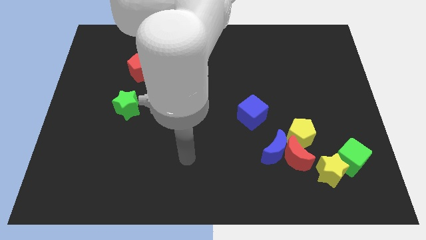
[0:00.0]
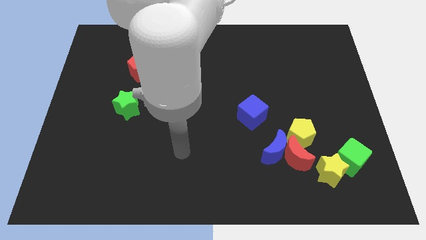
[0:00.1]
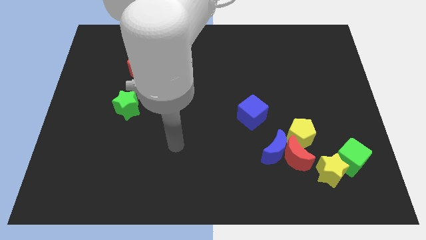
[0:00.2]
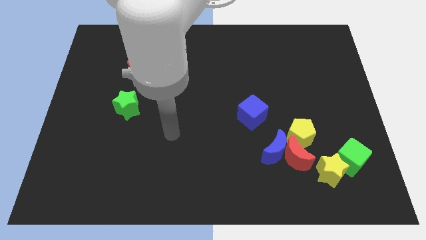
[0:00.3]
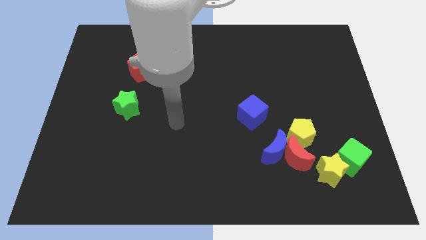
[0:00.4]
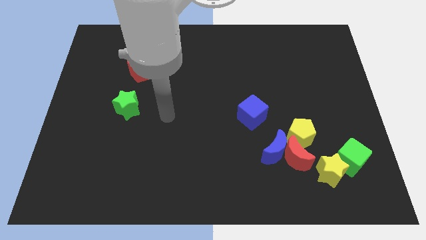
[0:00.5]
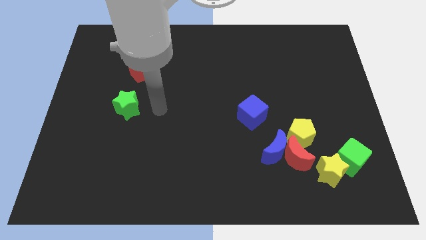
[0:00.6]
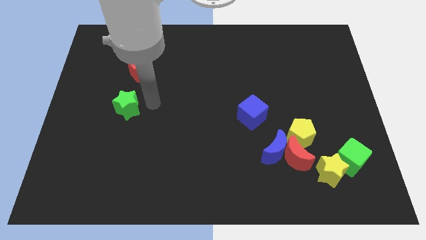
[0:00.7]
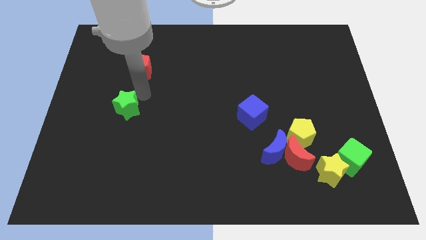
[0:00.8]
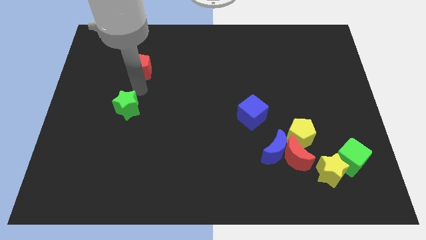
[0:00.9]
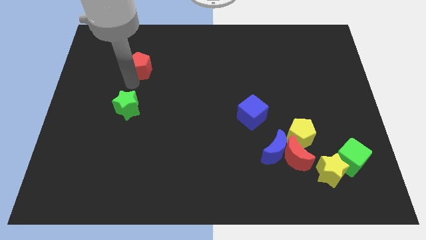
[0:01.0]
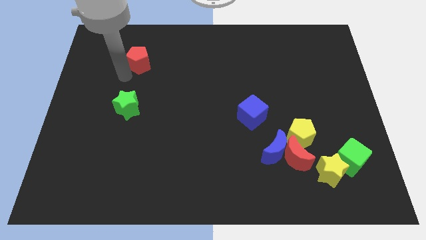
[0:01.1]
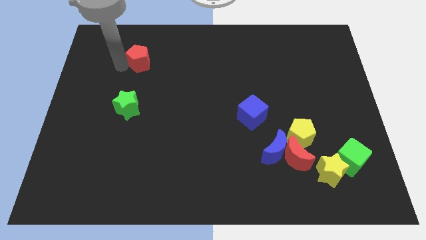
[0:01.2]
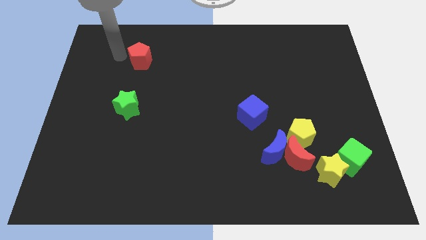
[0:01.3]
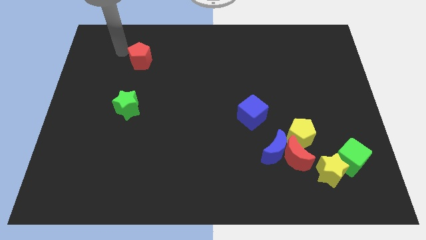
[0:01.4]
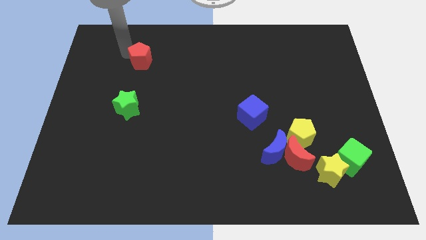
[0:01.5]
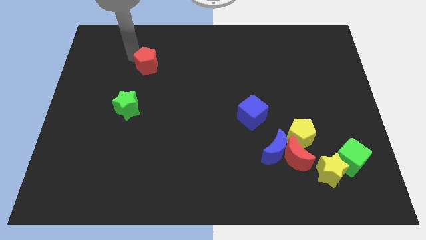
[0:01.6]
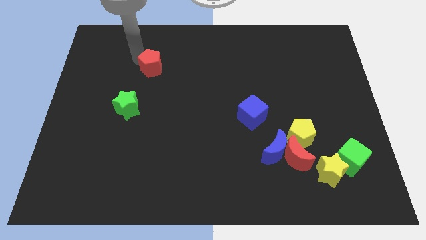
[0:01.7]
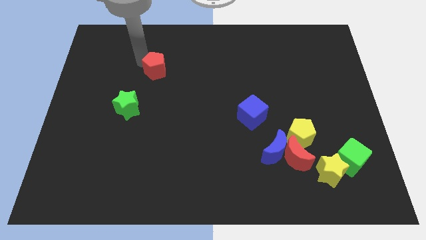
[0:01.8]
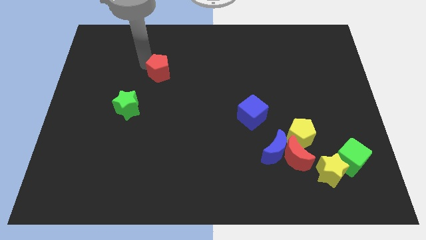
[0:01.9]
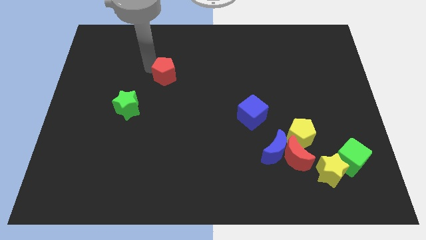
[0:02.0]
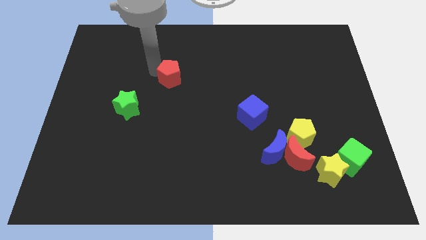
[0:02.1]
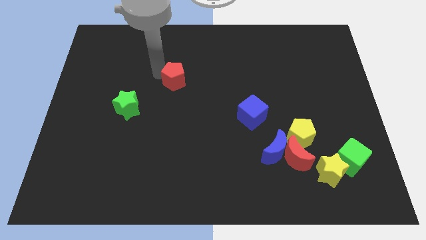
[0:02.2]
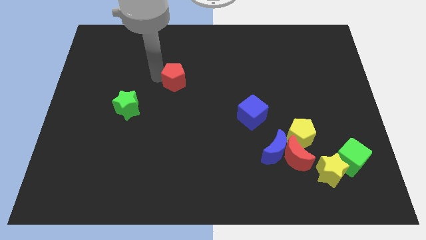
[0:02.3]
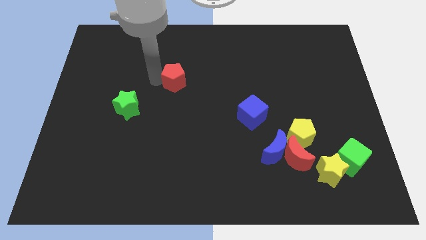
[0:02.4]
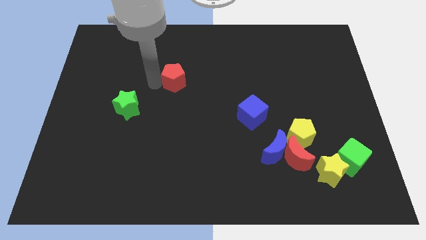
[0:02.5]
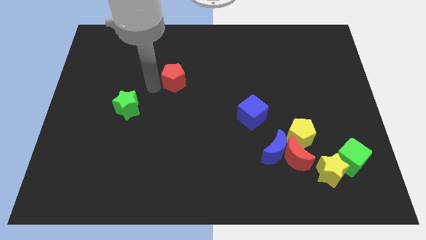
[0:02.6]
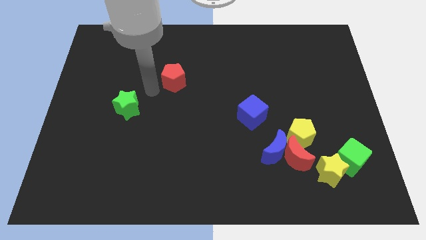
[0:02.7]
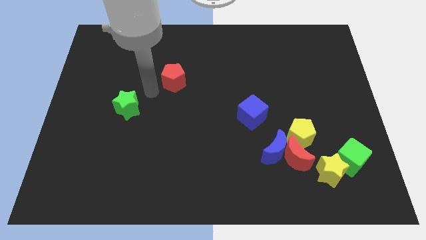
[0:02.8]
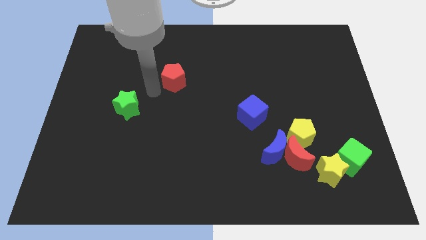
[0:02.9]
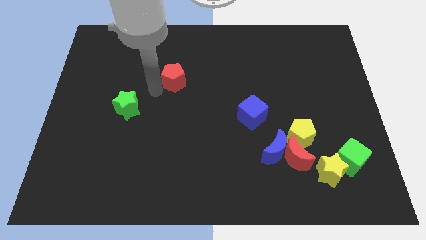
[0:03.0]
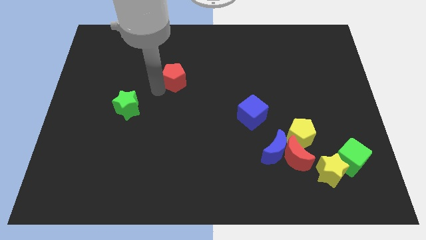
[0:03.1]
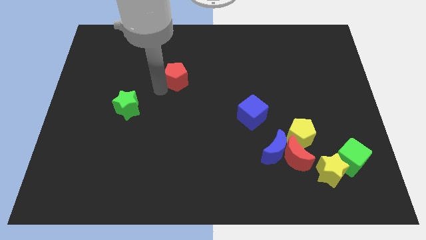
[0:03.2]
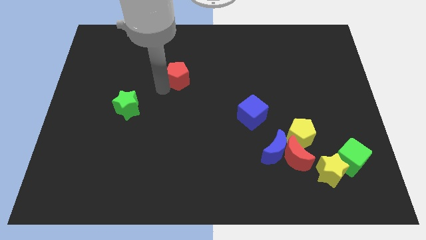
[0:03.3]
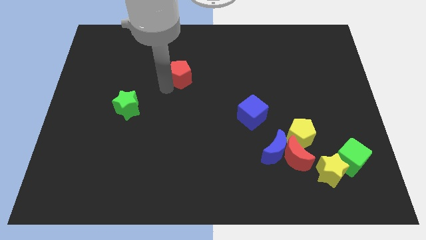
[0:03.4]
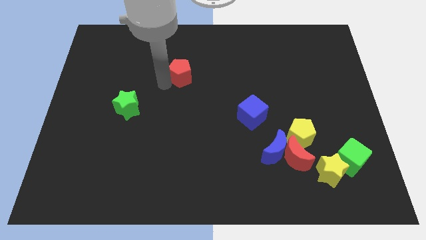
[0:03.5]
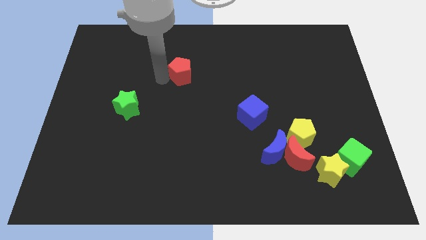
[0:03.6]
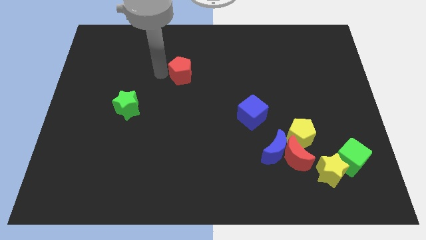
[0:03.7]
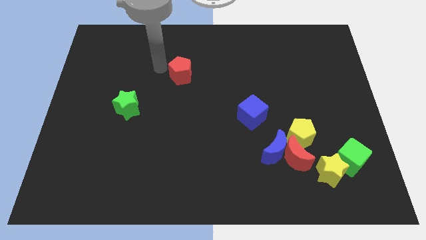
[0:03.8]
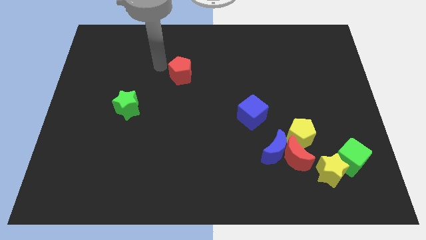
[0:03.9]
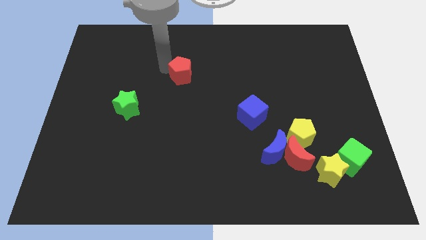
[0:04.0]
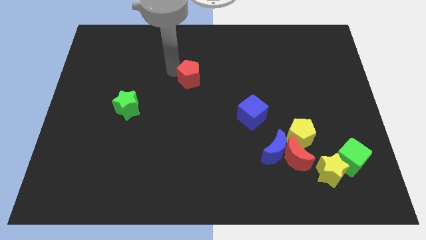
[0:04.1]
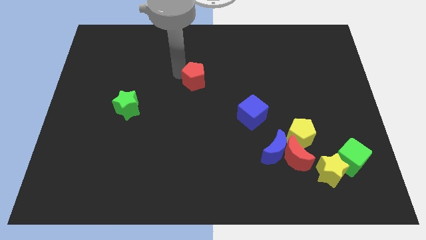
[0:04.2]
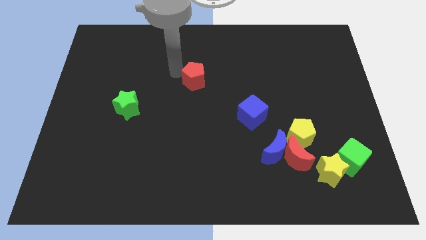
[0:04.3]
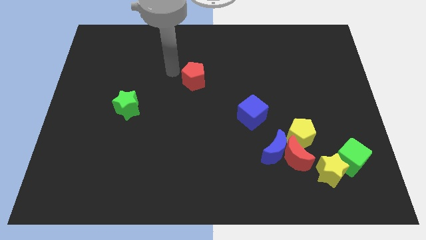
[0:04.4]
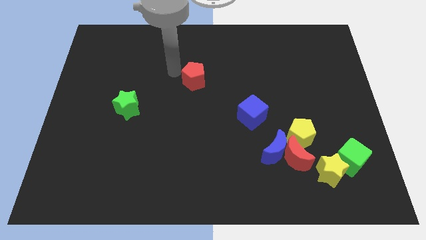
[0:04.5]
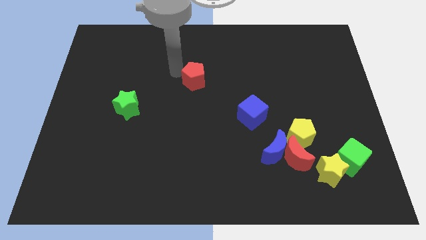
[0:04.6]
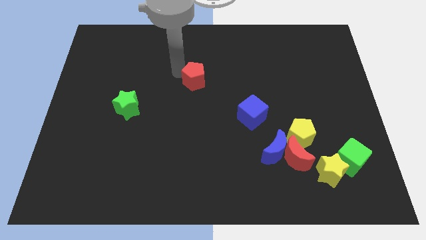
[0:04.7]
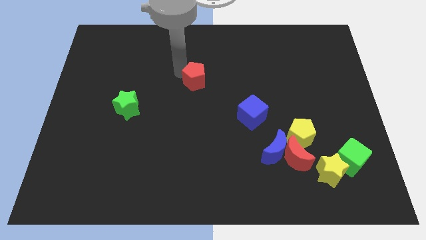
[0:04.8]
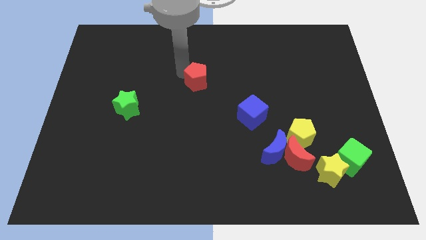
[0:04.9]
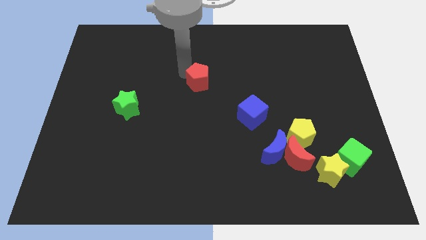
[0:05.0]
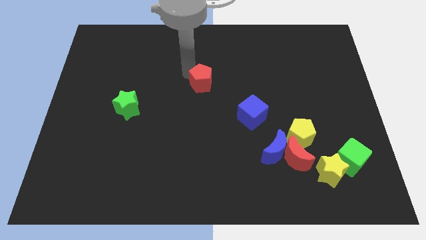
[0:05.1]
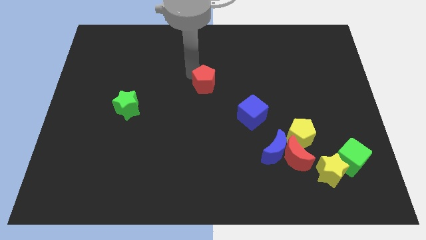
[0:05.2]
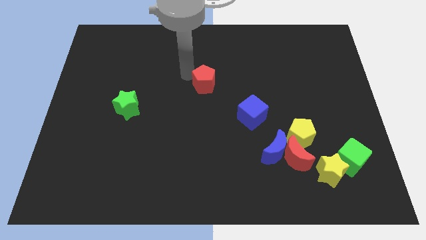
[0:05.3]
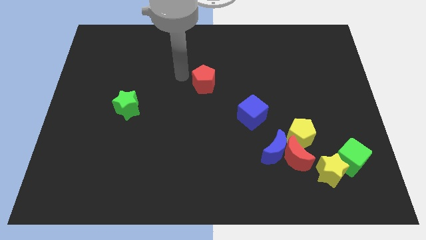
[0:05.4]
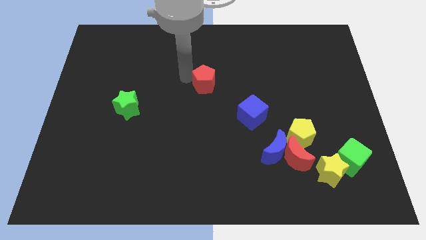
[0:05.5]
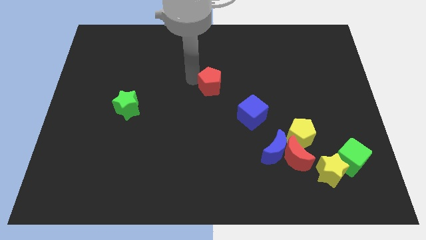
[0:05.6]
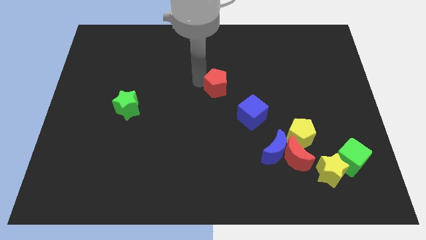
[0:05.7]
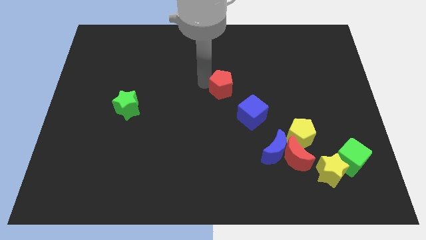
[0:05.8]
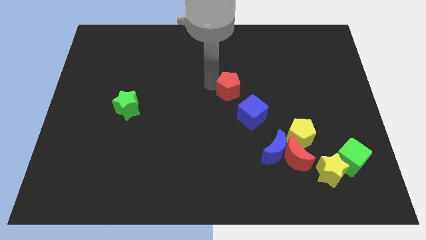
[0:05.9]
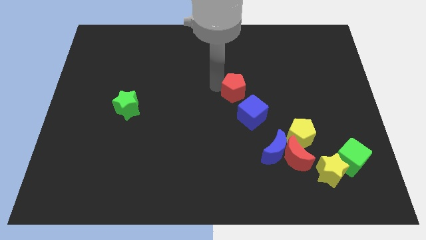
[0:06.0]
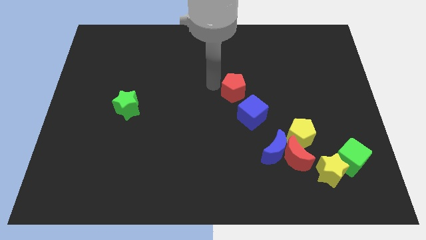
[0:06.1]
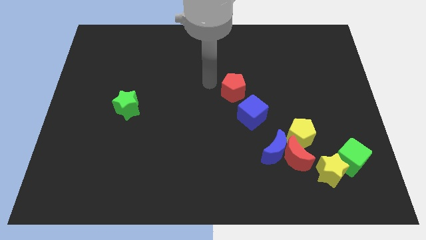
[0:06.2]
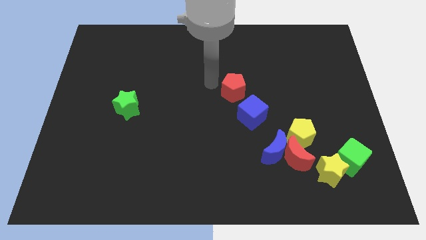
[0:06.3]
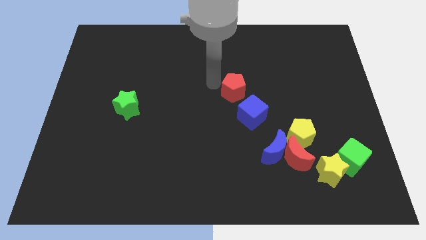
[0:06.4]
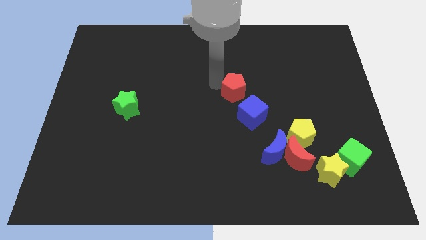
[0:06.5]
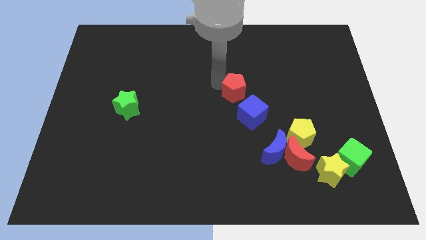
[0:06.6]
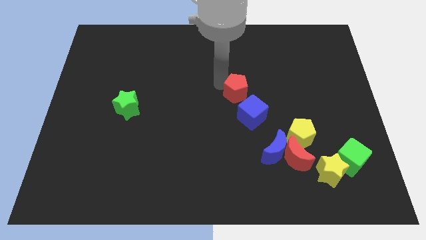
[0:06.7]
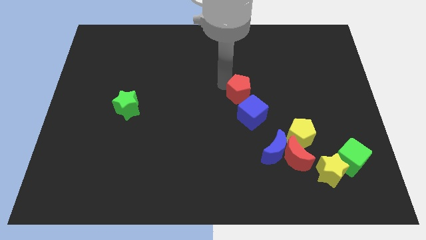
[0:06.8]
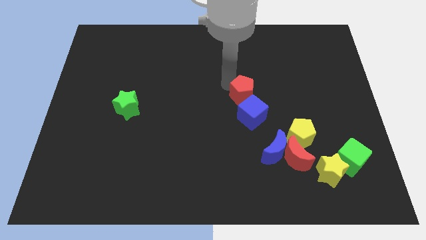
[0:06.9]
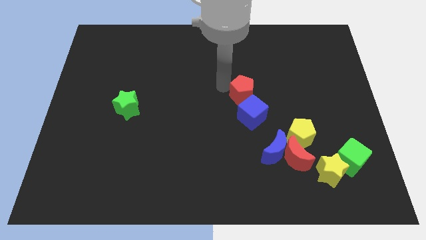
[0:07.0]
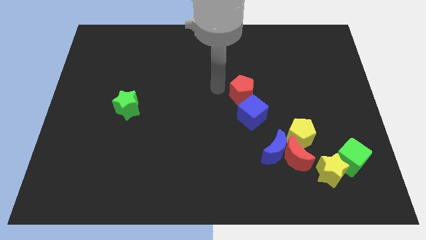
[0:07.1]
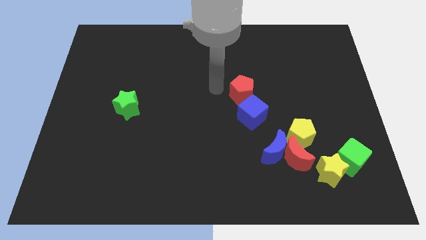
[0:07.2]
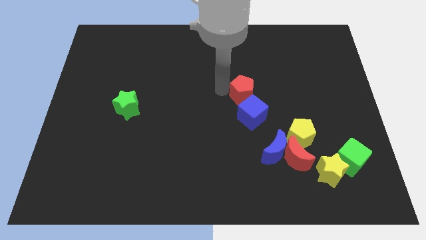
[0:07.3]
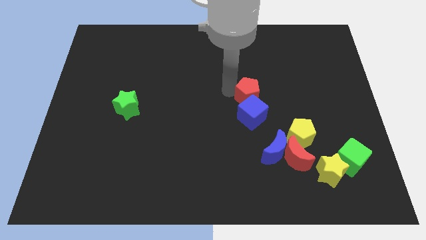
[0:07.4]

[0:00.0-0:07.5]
push the red pentagon diagonally up and to the right of the blue cube
